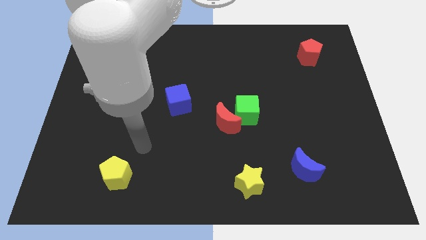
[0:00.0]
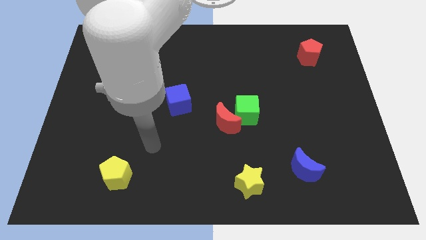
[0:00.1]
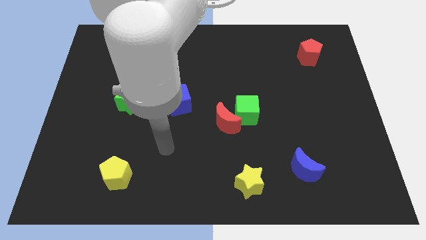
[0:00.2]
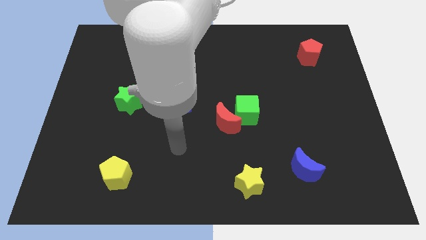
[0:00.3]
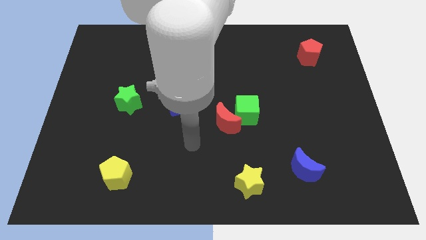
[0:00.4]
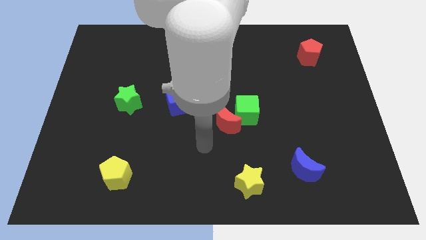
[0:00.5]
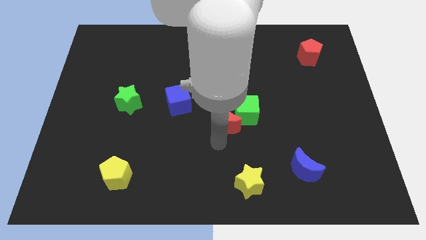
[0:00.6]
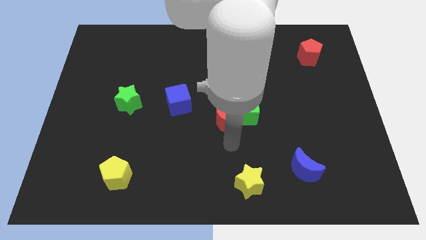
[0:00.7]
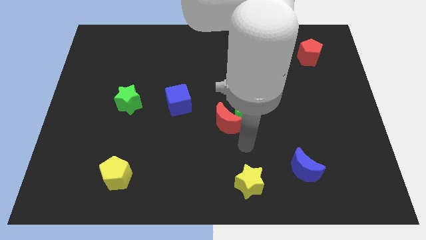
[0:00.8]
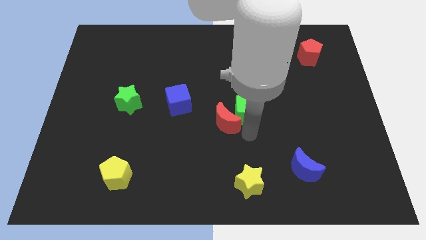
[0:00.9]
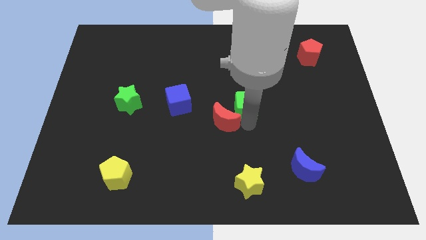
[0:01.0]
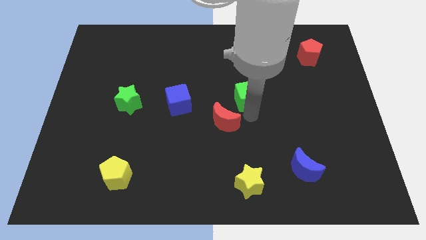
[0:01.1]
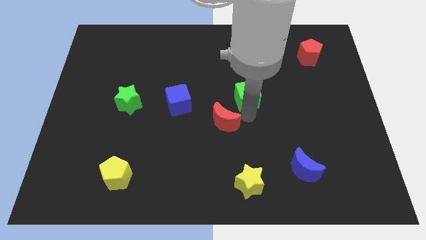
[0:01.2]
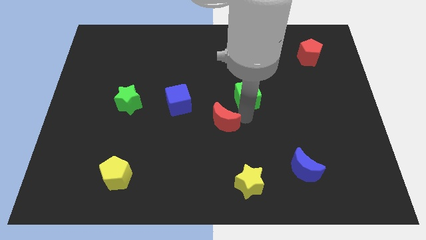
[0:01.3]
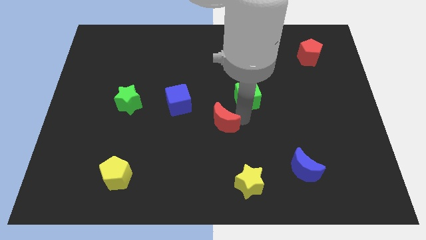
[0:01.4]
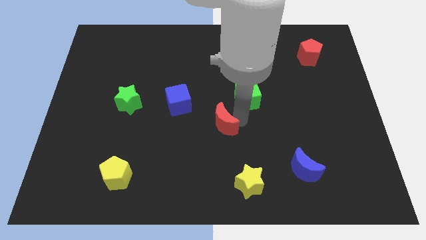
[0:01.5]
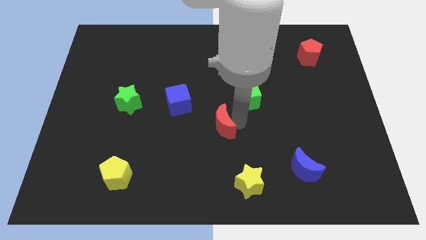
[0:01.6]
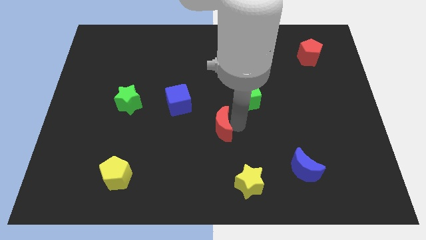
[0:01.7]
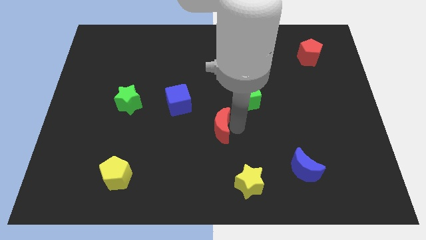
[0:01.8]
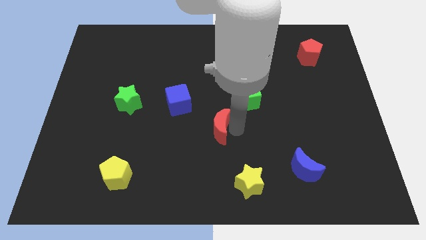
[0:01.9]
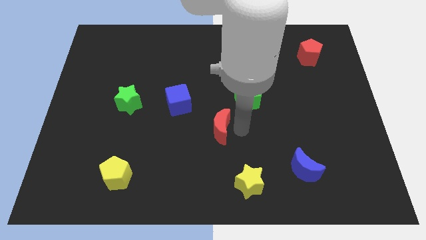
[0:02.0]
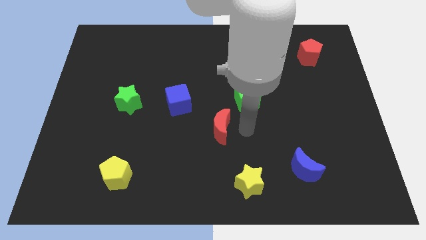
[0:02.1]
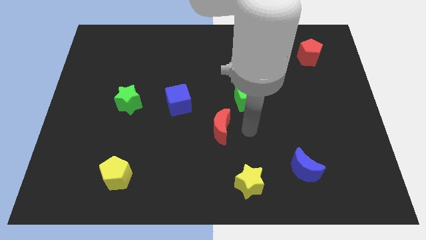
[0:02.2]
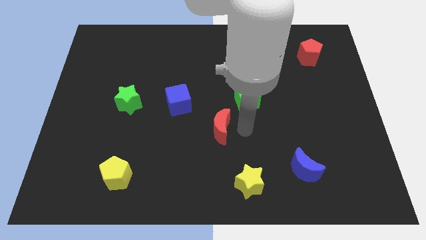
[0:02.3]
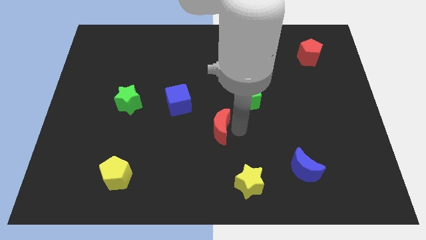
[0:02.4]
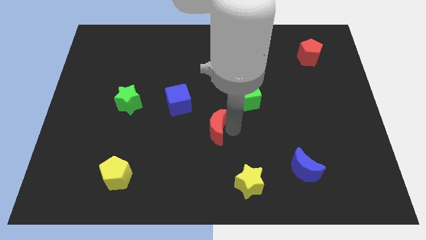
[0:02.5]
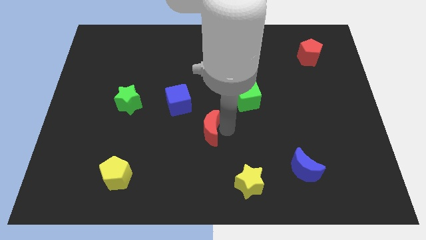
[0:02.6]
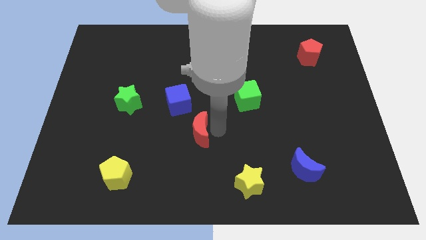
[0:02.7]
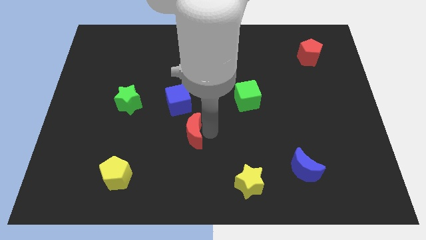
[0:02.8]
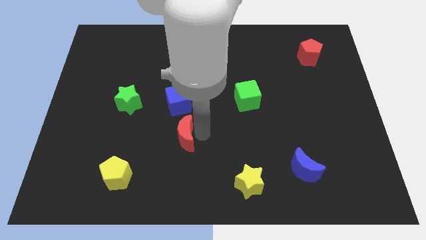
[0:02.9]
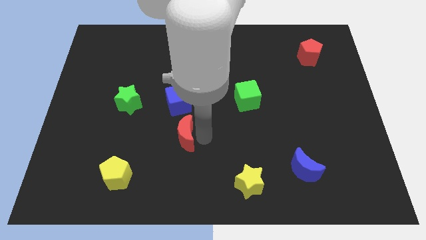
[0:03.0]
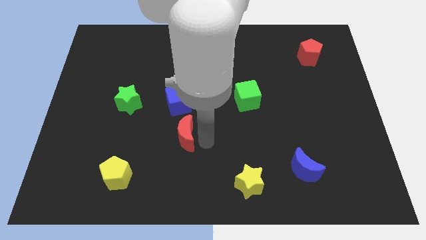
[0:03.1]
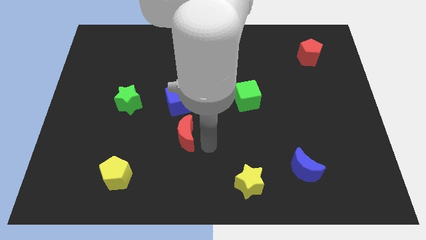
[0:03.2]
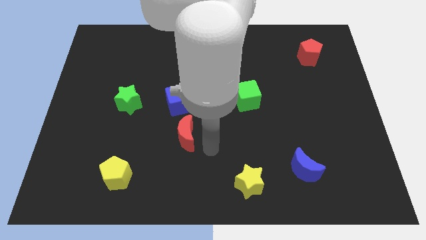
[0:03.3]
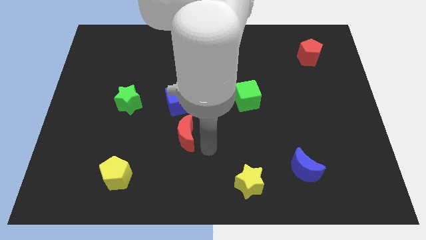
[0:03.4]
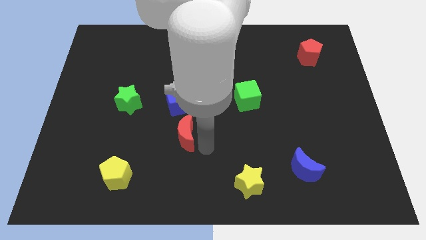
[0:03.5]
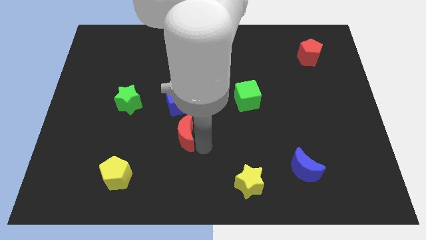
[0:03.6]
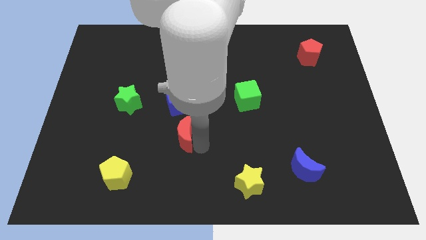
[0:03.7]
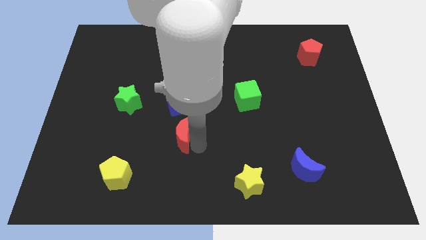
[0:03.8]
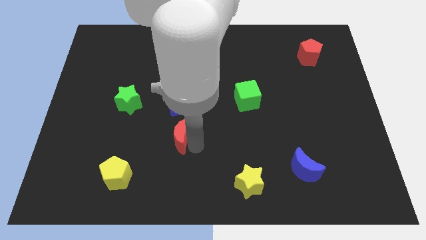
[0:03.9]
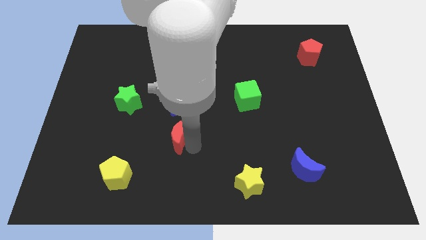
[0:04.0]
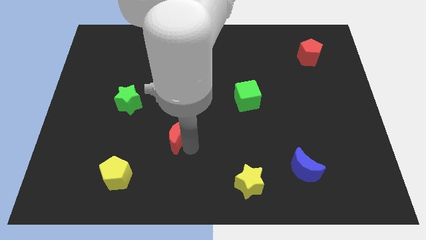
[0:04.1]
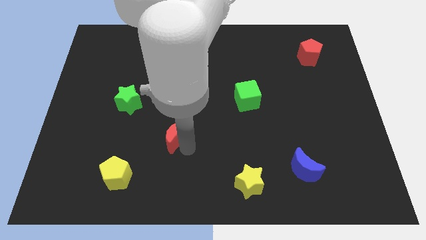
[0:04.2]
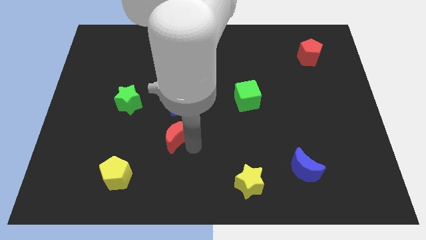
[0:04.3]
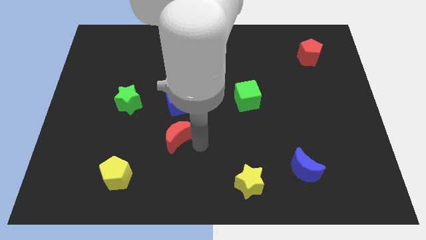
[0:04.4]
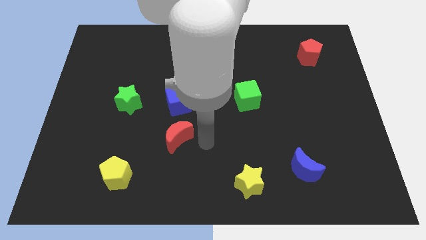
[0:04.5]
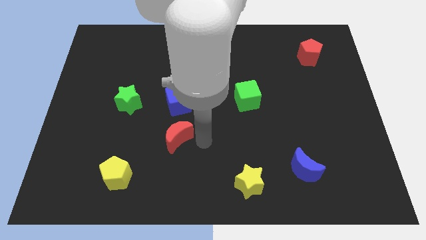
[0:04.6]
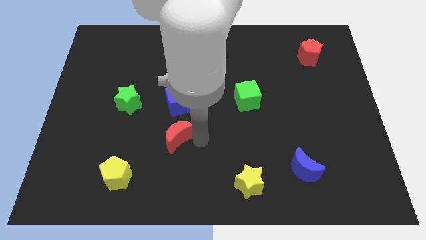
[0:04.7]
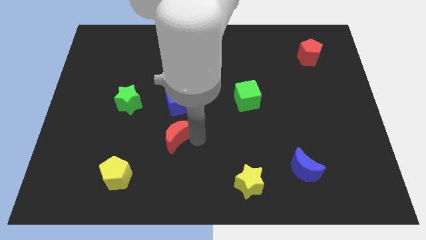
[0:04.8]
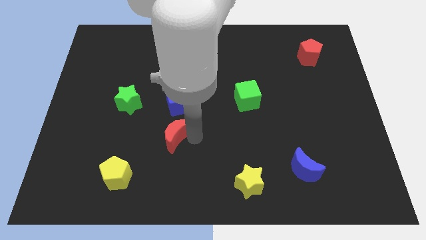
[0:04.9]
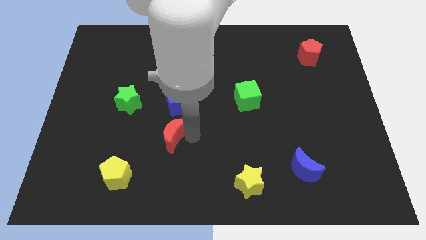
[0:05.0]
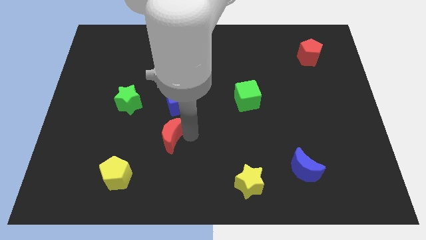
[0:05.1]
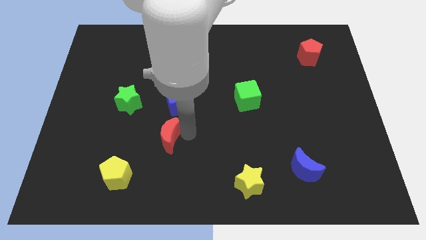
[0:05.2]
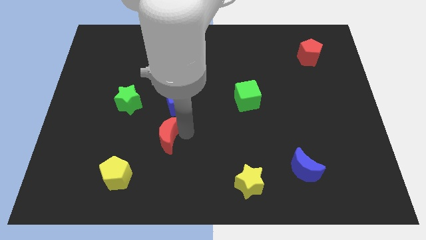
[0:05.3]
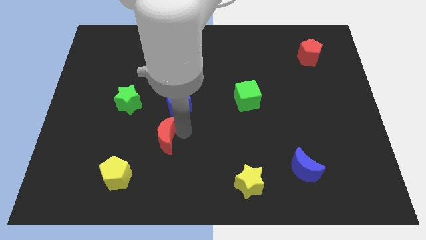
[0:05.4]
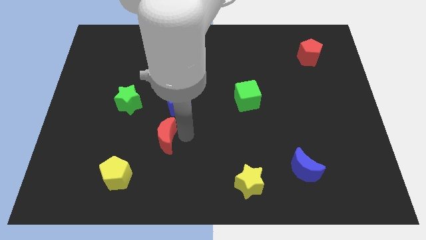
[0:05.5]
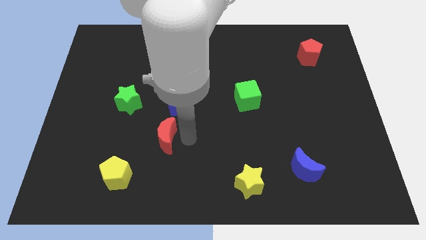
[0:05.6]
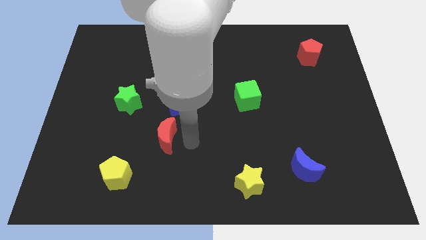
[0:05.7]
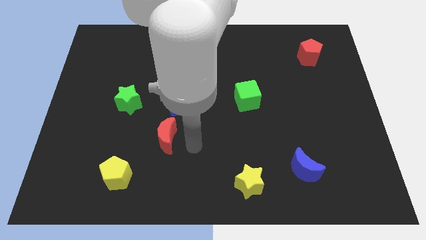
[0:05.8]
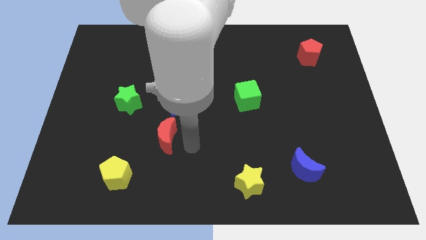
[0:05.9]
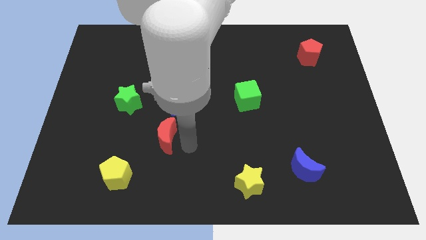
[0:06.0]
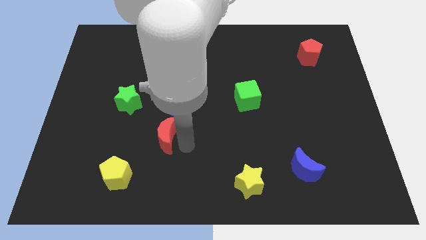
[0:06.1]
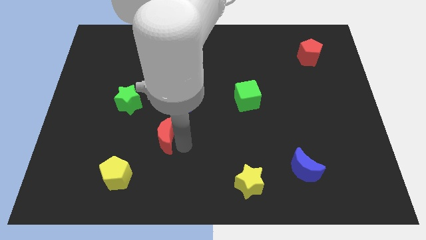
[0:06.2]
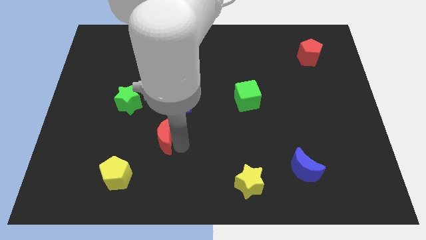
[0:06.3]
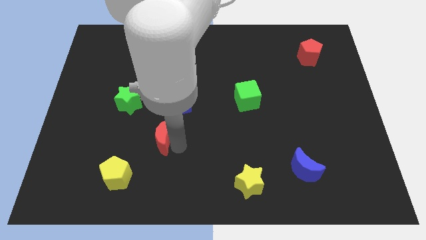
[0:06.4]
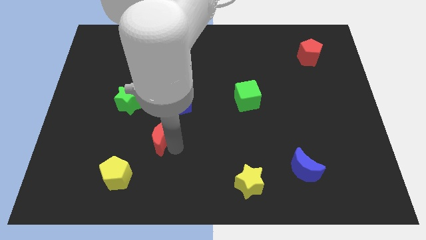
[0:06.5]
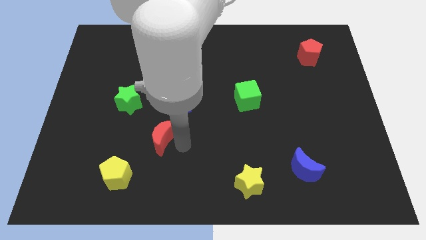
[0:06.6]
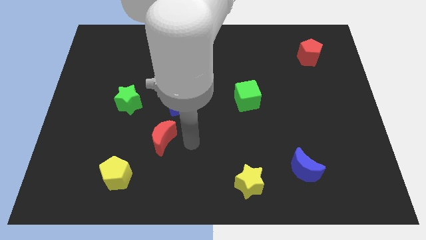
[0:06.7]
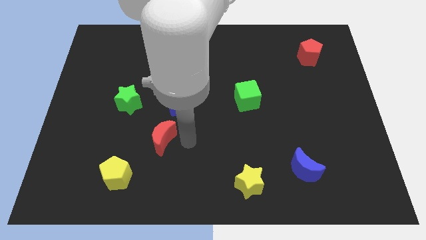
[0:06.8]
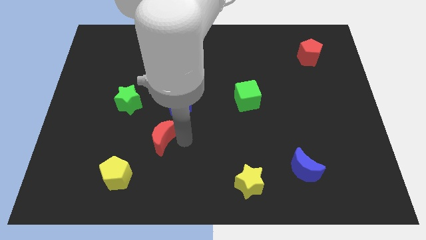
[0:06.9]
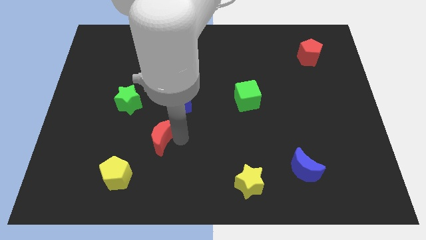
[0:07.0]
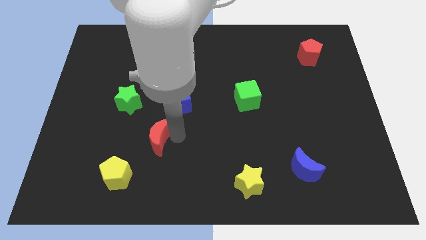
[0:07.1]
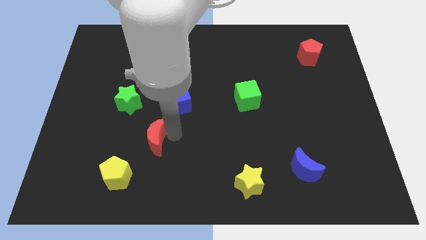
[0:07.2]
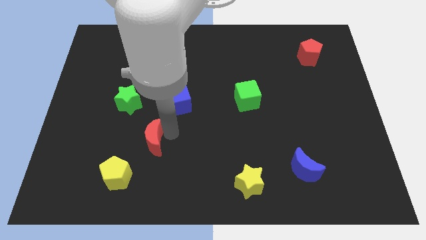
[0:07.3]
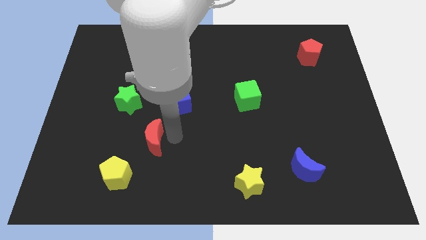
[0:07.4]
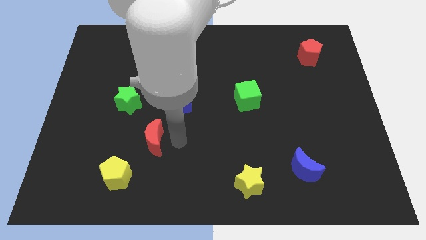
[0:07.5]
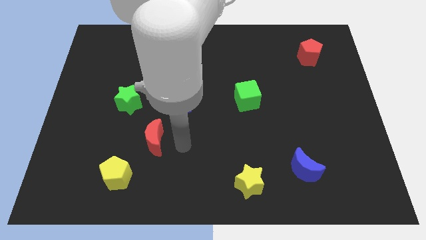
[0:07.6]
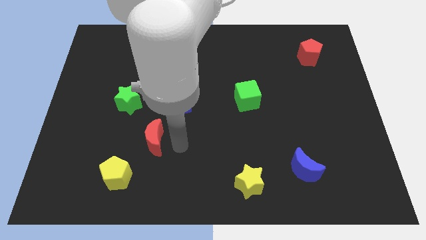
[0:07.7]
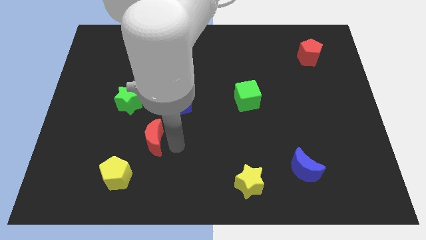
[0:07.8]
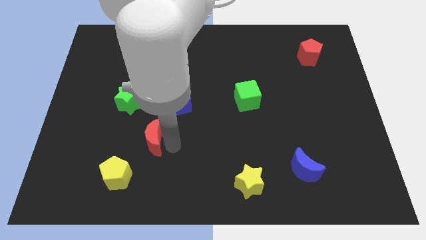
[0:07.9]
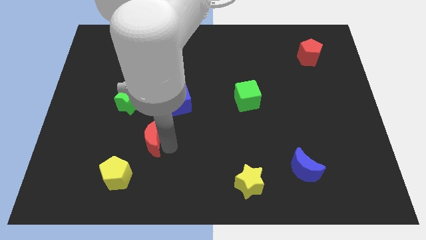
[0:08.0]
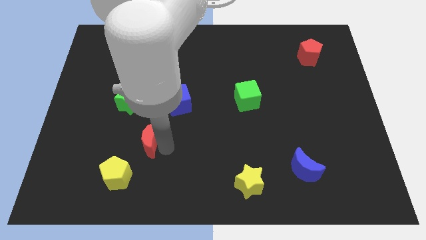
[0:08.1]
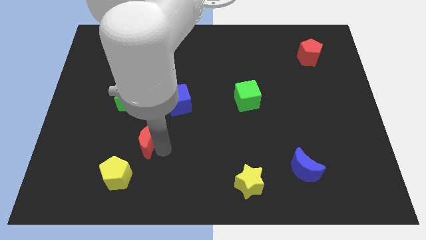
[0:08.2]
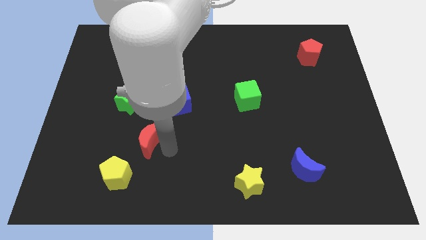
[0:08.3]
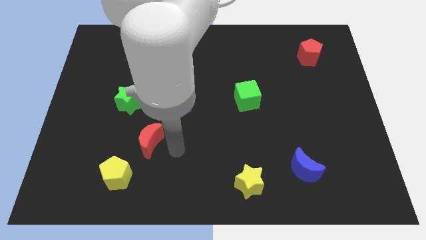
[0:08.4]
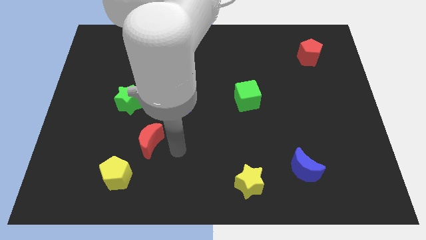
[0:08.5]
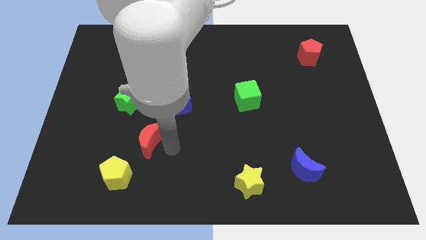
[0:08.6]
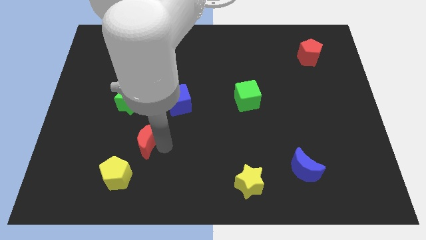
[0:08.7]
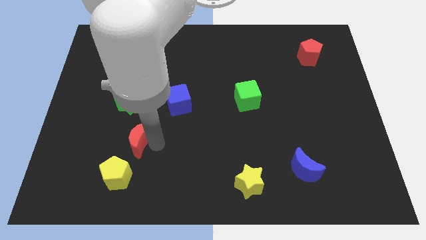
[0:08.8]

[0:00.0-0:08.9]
move the red moon above the yellow pentagon
